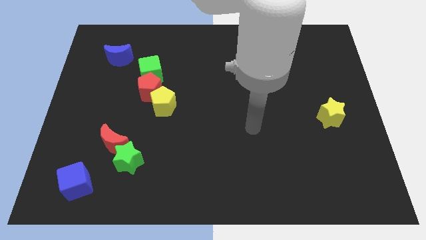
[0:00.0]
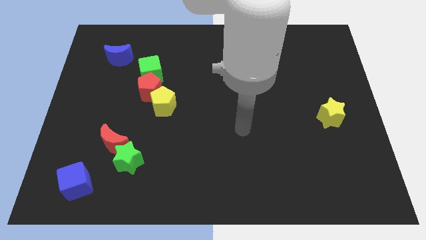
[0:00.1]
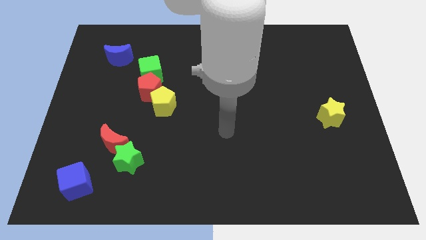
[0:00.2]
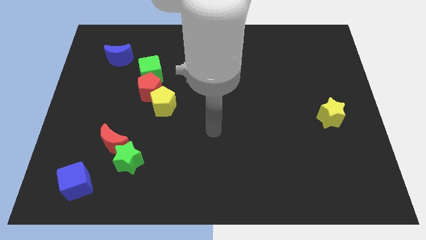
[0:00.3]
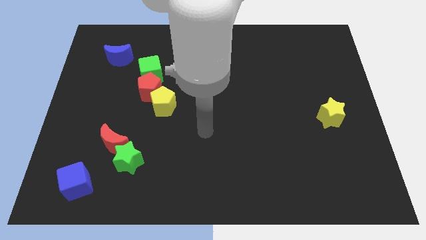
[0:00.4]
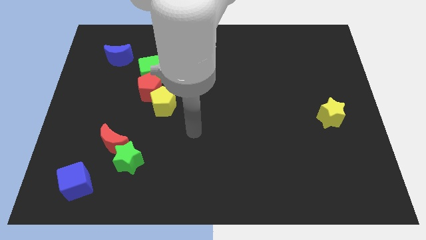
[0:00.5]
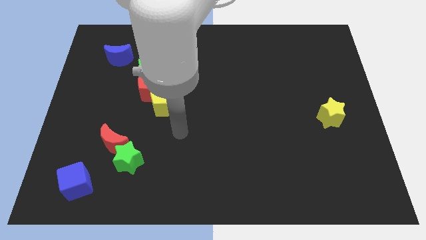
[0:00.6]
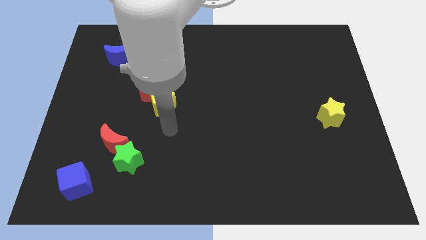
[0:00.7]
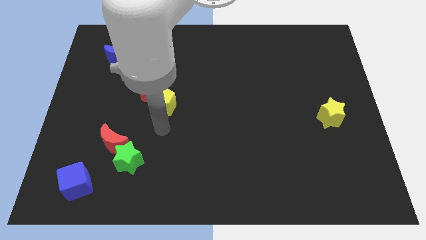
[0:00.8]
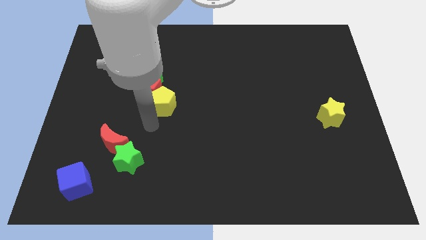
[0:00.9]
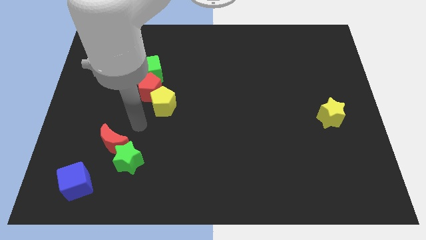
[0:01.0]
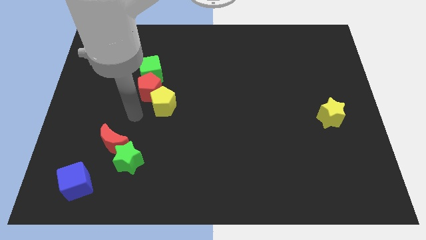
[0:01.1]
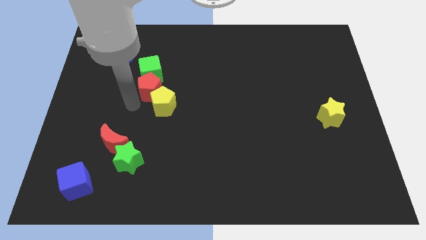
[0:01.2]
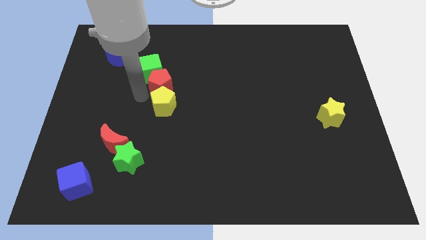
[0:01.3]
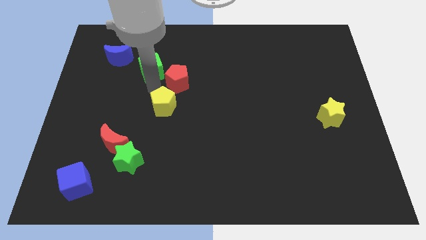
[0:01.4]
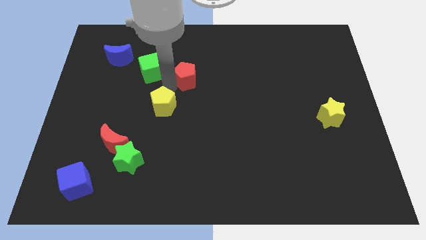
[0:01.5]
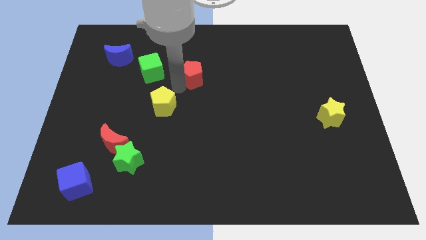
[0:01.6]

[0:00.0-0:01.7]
separate the yellow pentagon from the red pentagon

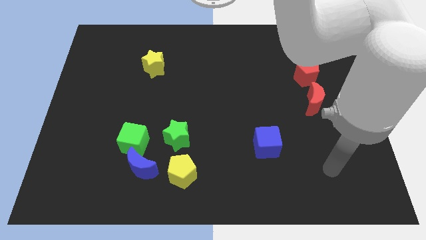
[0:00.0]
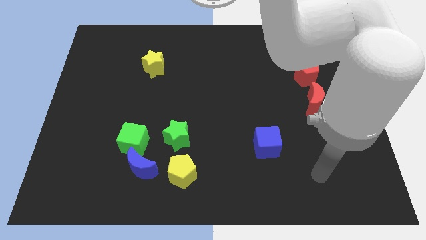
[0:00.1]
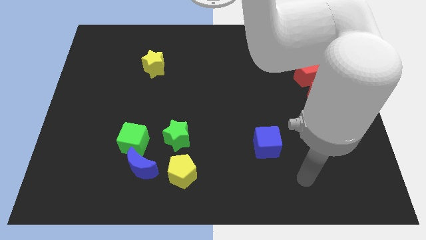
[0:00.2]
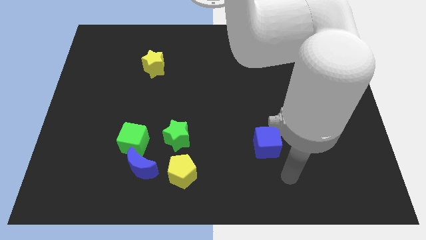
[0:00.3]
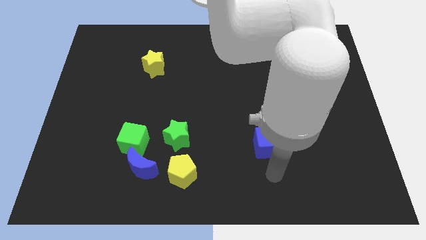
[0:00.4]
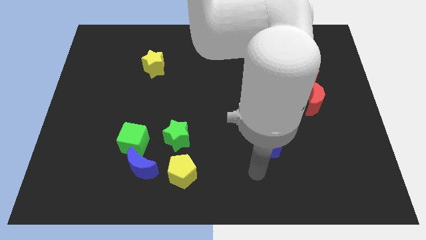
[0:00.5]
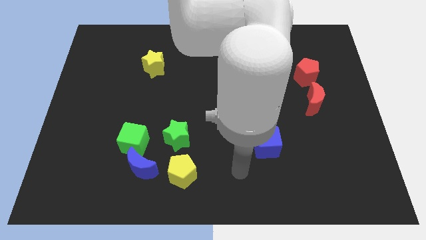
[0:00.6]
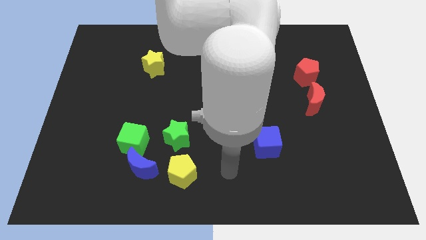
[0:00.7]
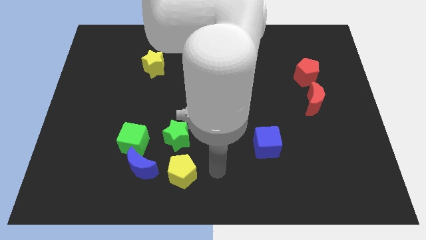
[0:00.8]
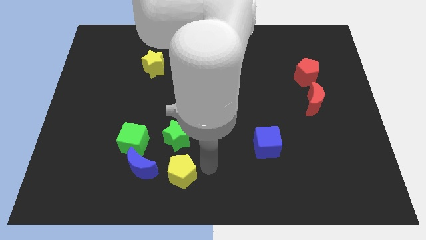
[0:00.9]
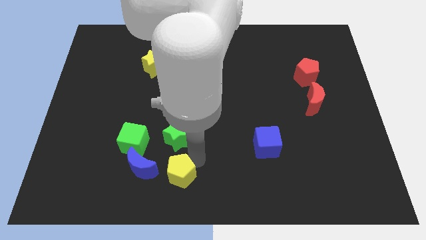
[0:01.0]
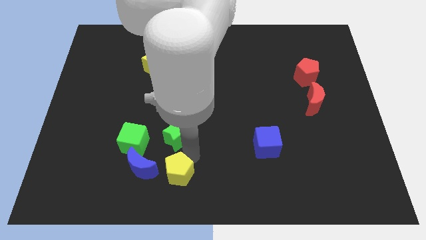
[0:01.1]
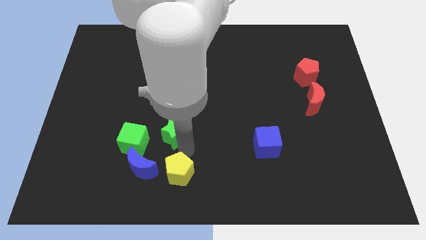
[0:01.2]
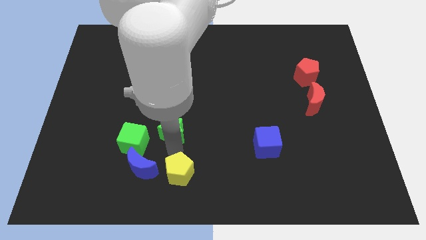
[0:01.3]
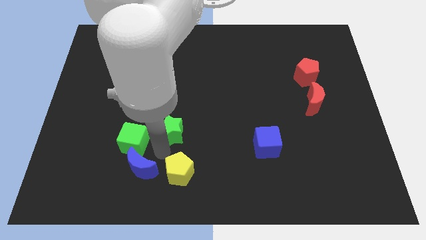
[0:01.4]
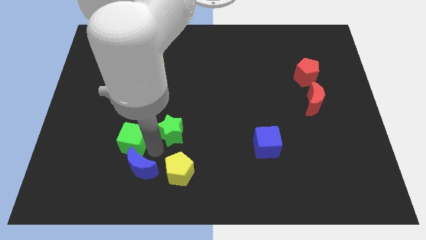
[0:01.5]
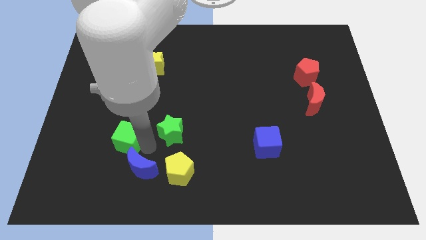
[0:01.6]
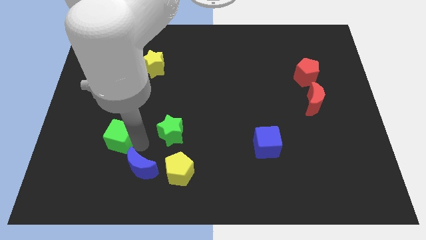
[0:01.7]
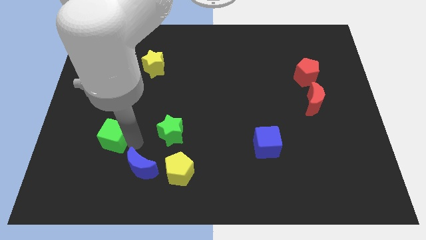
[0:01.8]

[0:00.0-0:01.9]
move the green cube away from the blue moon and green star

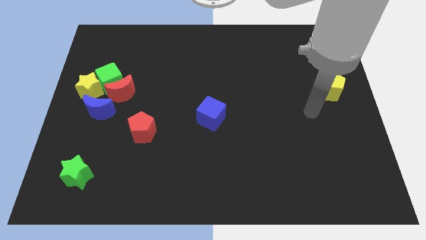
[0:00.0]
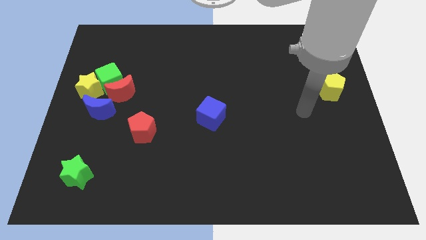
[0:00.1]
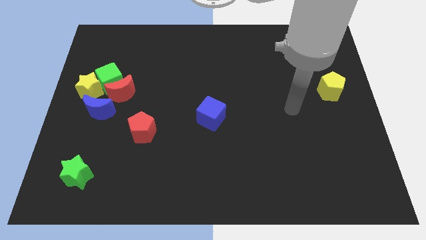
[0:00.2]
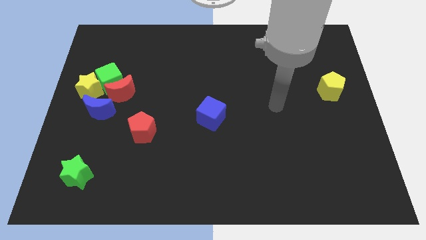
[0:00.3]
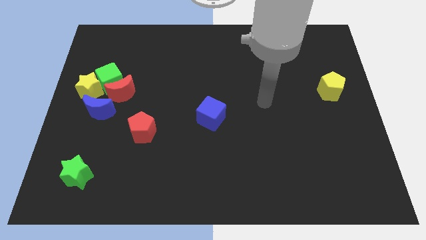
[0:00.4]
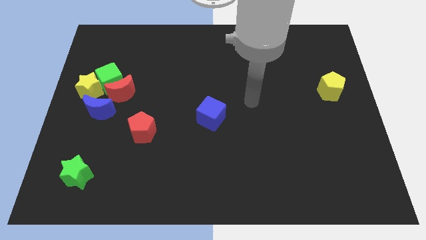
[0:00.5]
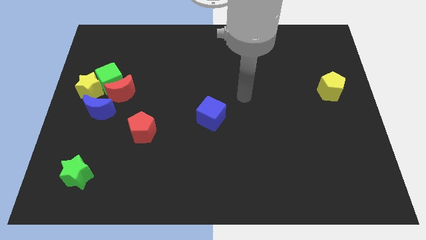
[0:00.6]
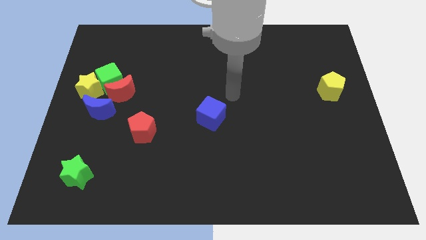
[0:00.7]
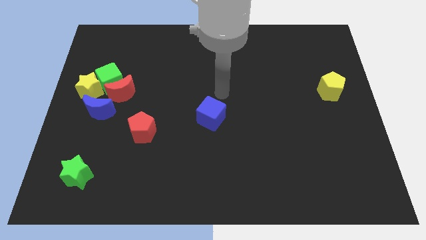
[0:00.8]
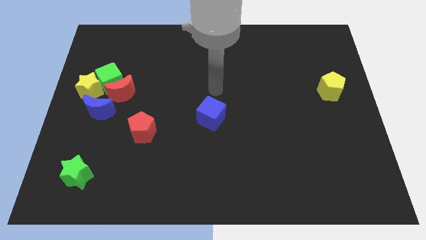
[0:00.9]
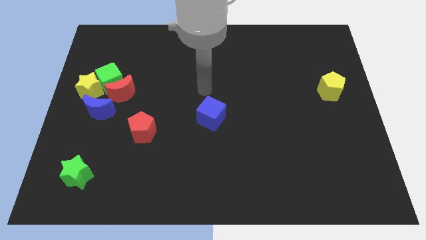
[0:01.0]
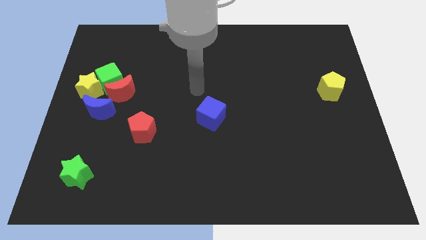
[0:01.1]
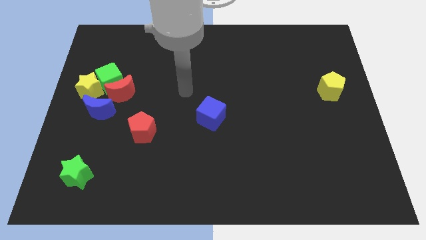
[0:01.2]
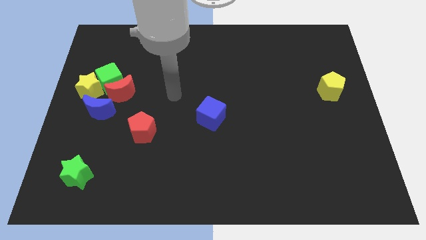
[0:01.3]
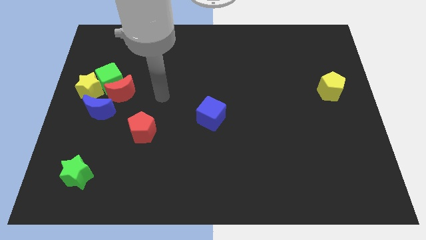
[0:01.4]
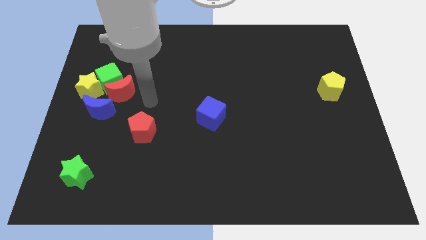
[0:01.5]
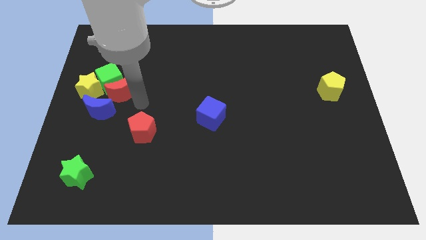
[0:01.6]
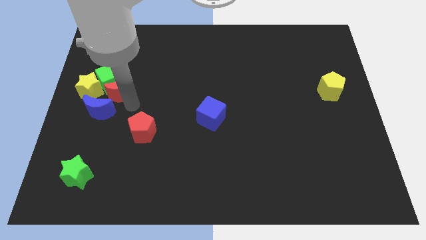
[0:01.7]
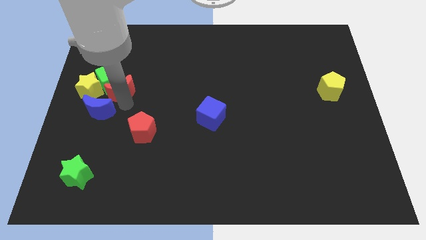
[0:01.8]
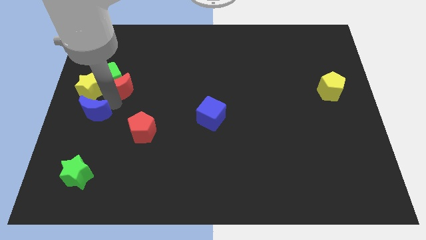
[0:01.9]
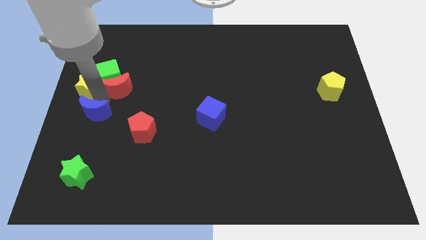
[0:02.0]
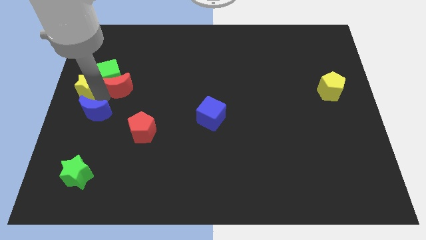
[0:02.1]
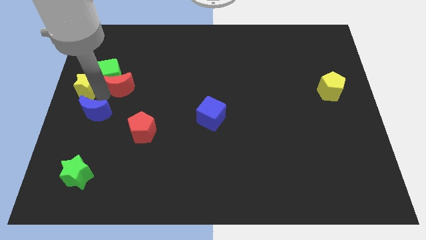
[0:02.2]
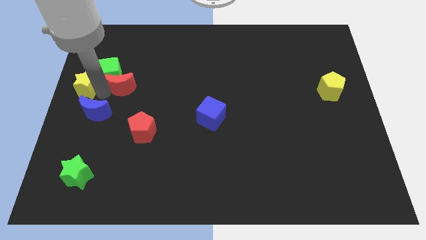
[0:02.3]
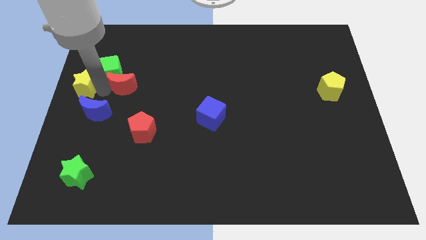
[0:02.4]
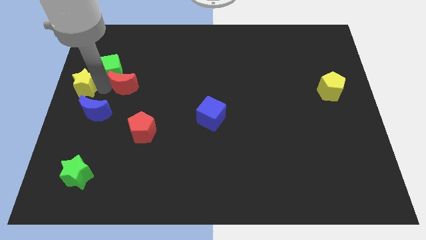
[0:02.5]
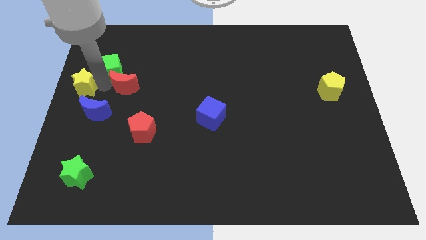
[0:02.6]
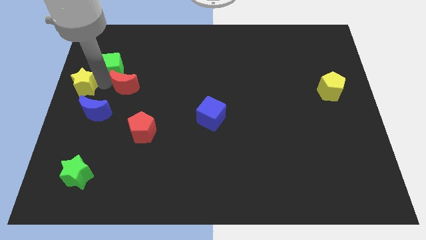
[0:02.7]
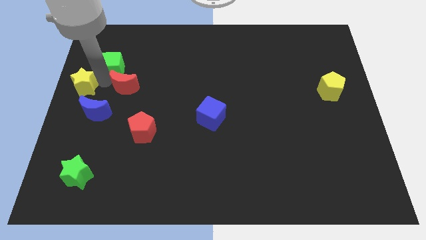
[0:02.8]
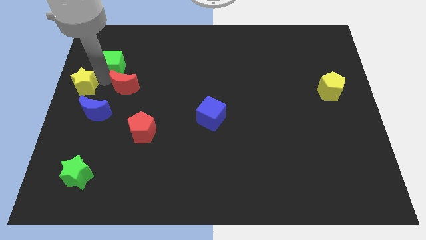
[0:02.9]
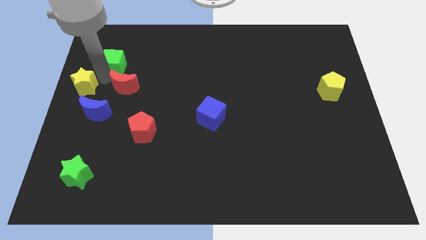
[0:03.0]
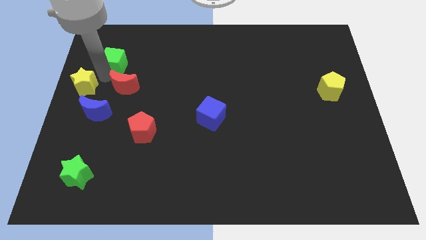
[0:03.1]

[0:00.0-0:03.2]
move the green cube away from the clump

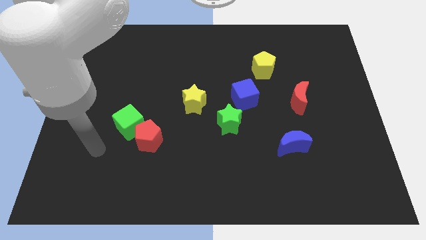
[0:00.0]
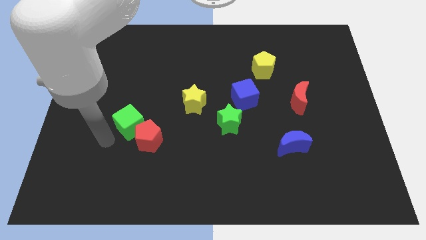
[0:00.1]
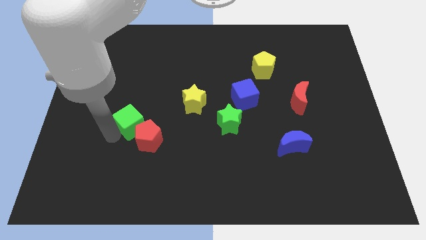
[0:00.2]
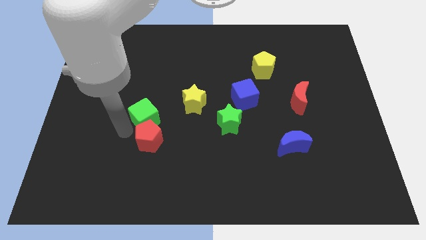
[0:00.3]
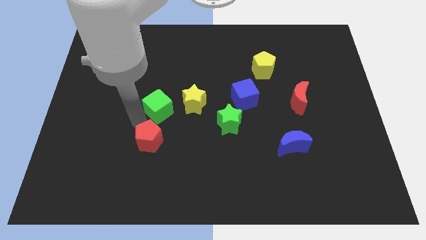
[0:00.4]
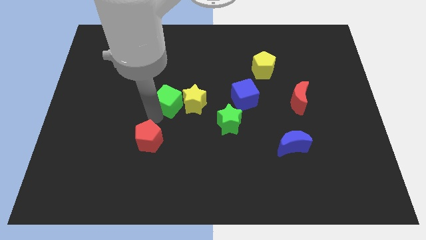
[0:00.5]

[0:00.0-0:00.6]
move the red pentagon away from the green cube

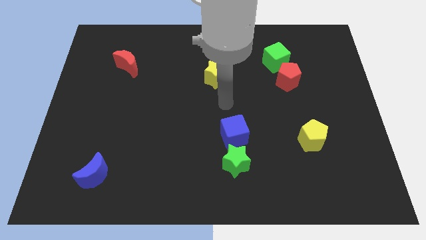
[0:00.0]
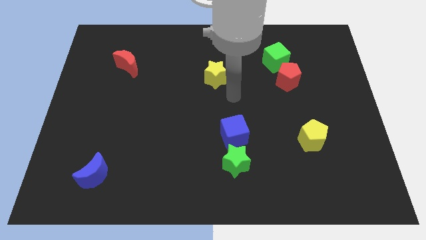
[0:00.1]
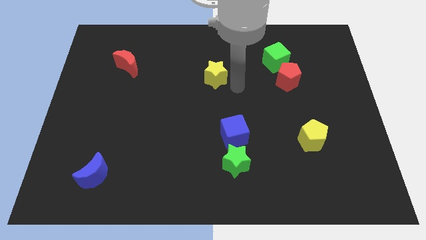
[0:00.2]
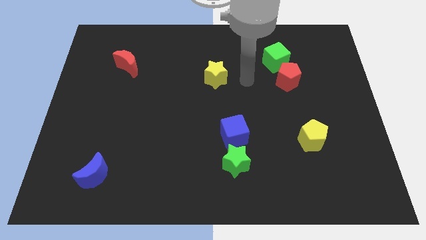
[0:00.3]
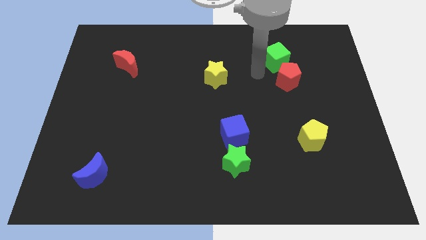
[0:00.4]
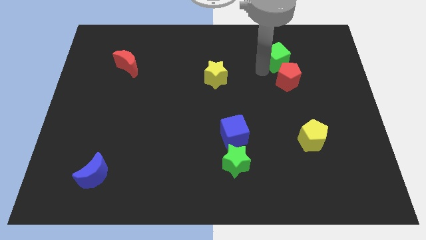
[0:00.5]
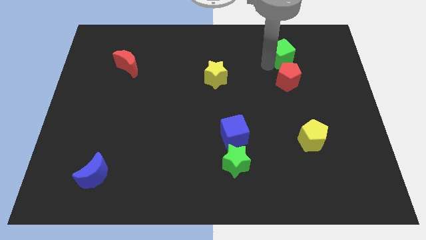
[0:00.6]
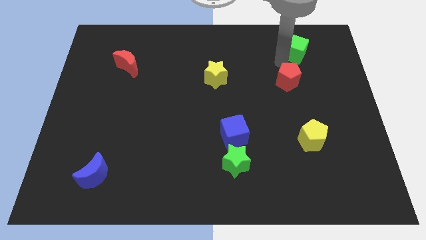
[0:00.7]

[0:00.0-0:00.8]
separate the red pentagon from the green cube

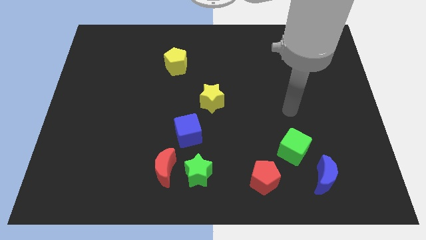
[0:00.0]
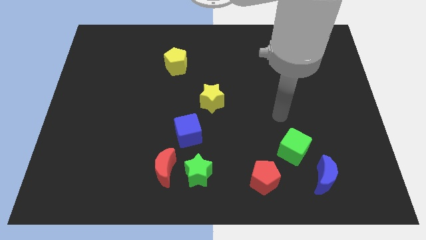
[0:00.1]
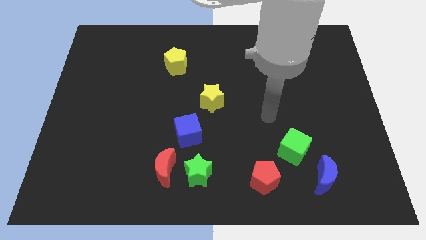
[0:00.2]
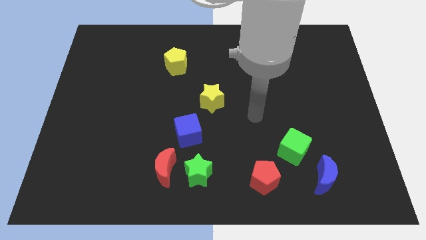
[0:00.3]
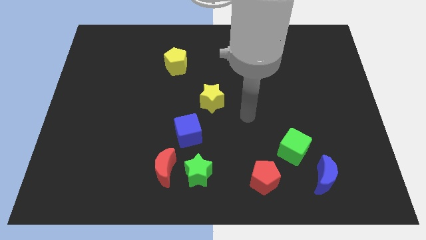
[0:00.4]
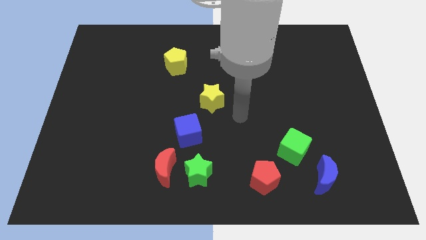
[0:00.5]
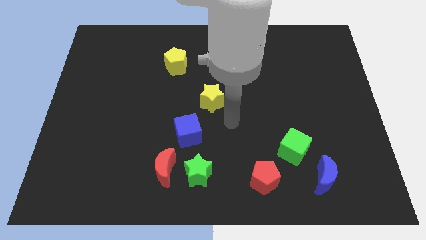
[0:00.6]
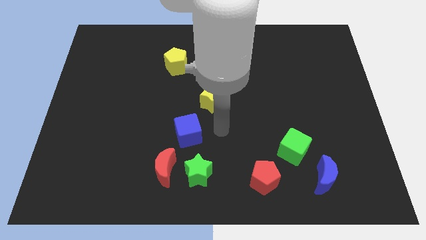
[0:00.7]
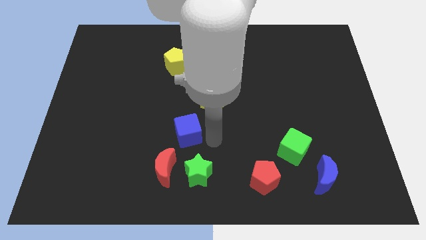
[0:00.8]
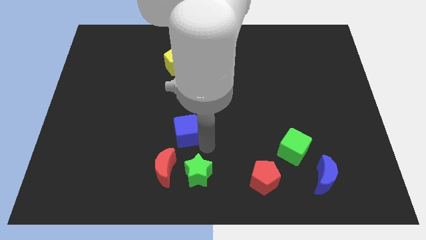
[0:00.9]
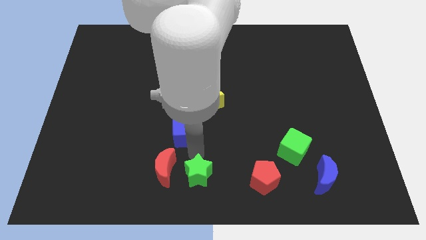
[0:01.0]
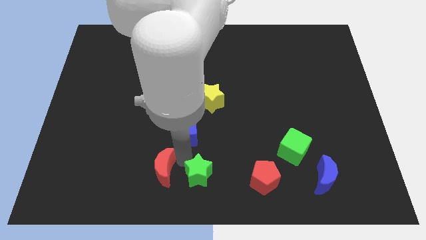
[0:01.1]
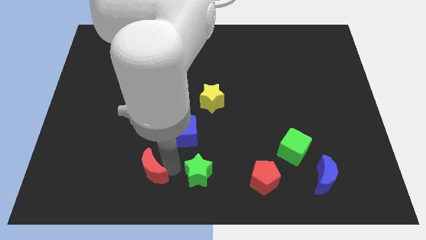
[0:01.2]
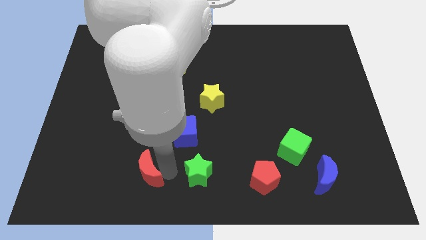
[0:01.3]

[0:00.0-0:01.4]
move the green star away from the red moon
